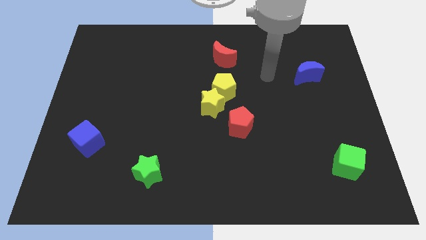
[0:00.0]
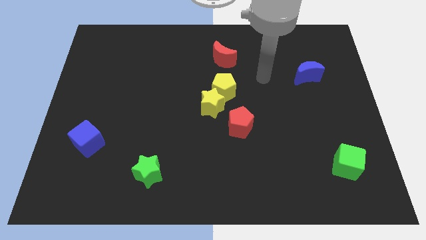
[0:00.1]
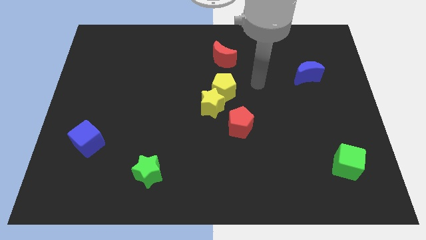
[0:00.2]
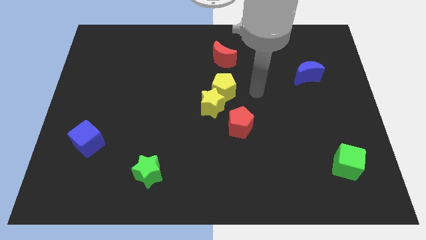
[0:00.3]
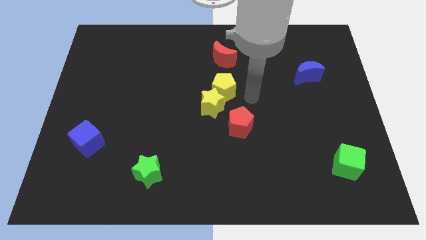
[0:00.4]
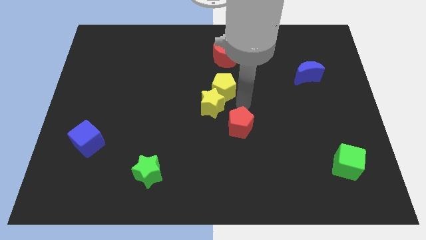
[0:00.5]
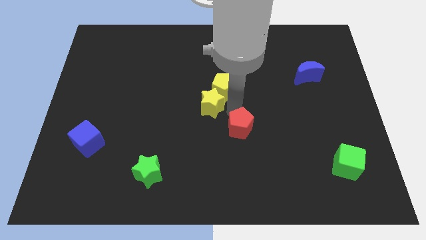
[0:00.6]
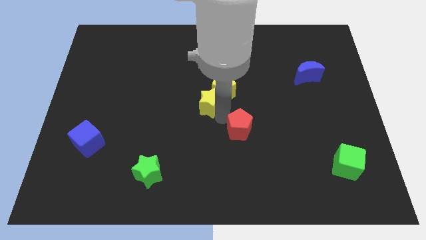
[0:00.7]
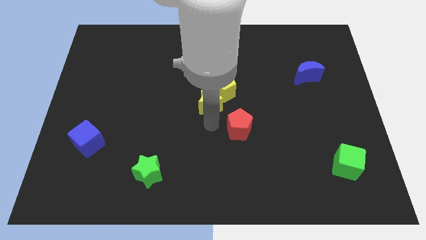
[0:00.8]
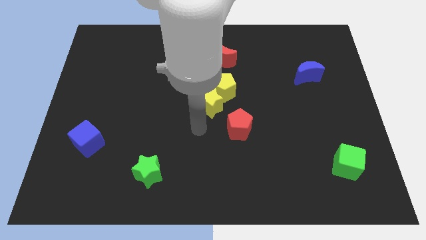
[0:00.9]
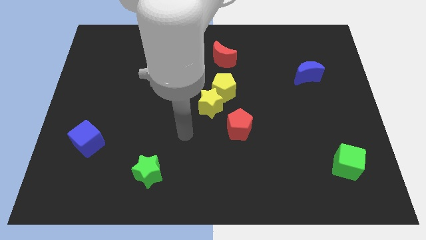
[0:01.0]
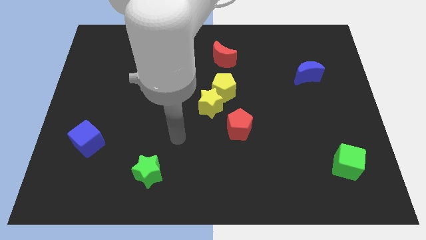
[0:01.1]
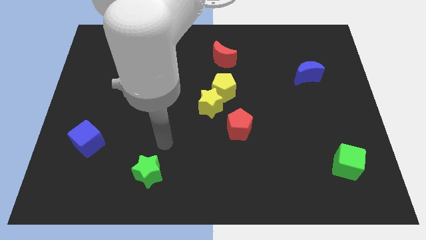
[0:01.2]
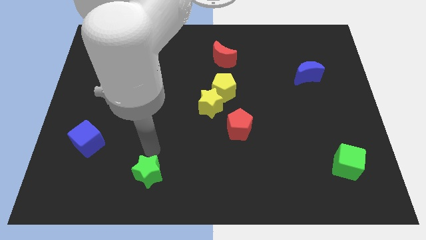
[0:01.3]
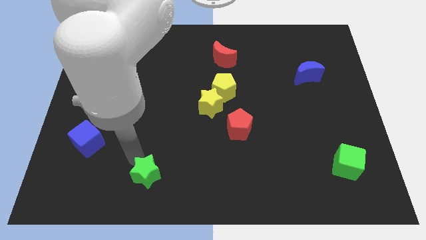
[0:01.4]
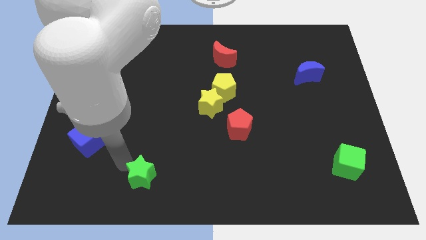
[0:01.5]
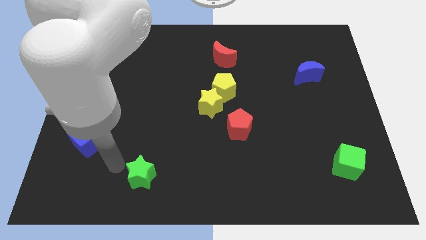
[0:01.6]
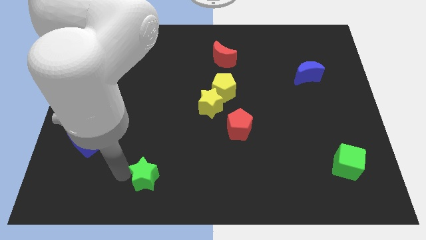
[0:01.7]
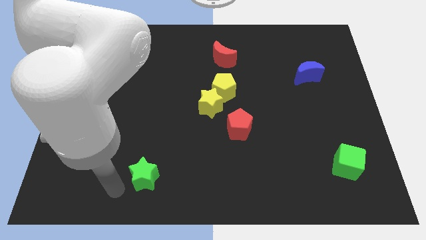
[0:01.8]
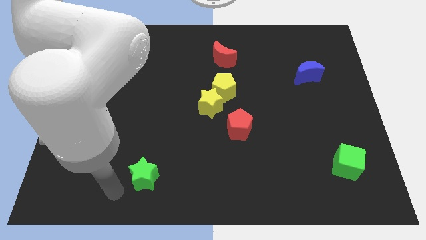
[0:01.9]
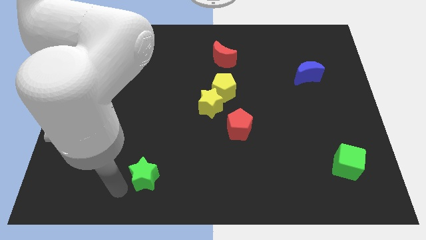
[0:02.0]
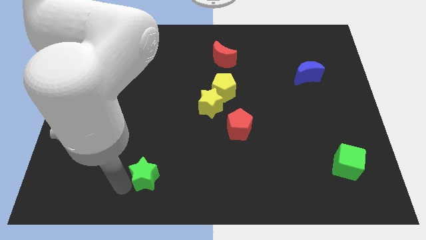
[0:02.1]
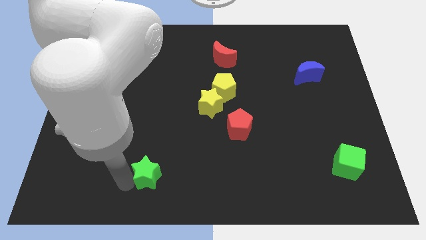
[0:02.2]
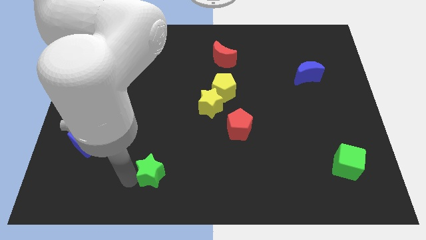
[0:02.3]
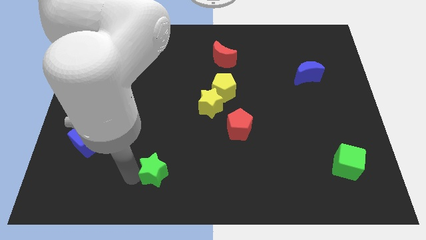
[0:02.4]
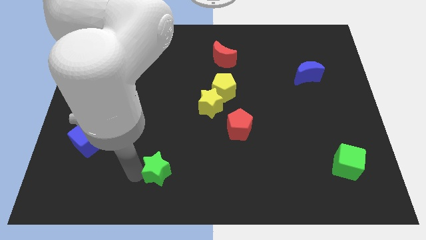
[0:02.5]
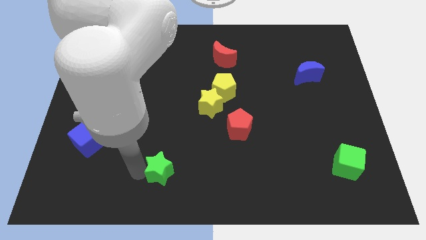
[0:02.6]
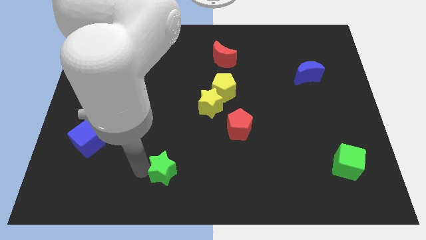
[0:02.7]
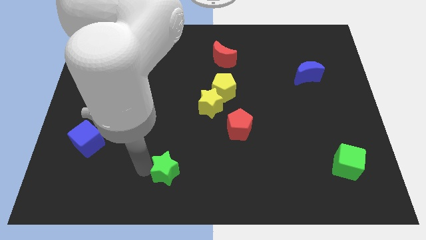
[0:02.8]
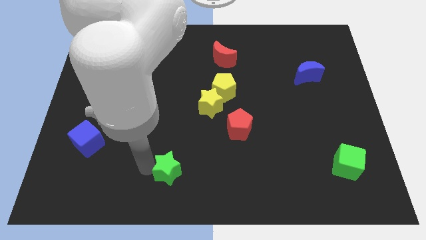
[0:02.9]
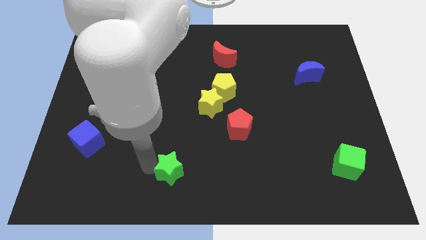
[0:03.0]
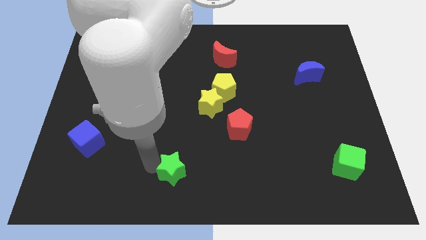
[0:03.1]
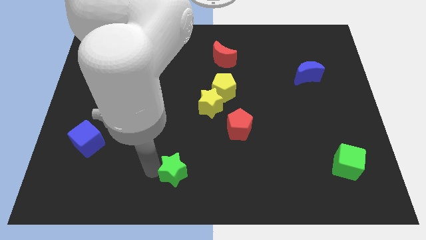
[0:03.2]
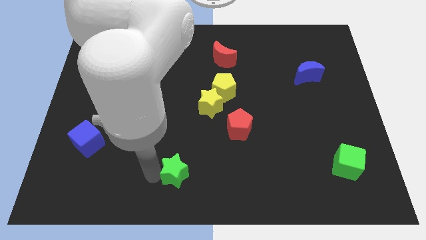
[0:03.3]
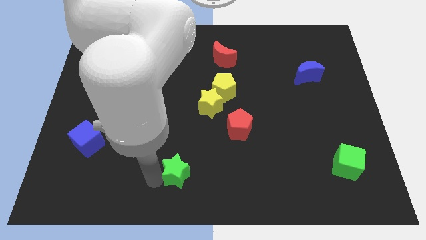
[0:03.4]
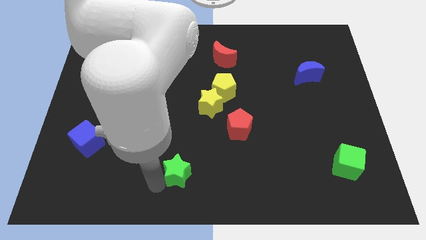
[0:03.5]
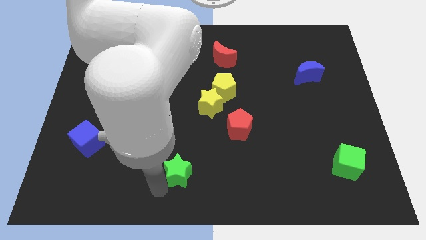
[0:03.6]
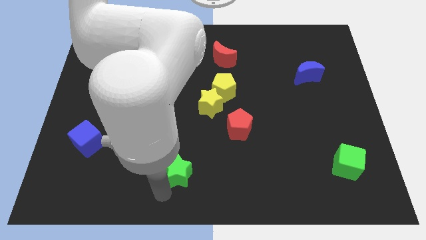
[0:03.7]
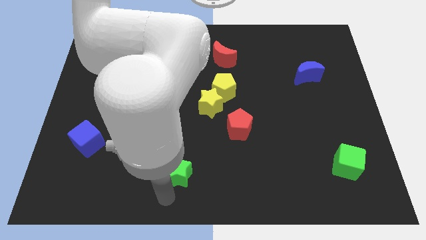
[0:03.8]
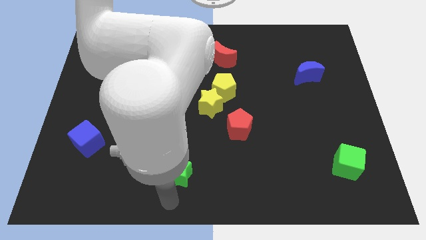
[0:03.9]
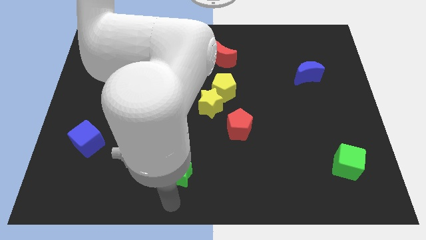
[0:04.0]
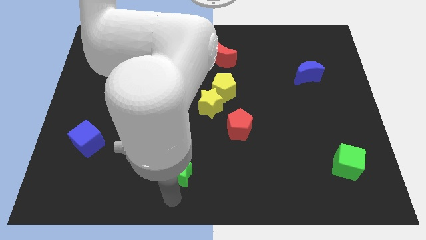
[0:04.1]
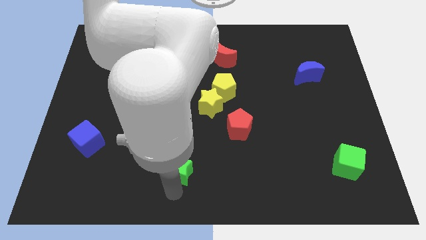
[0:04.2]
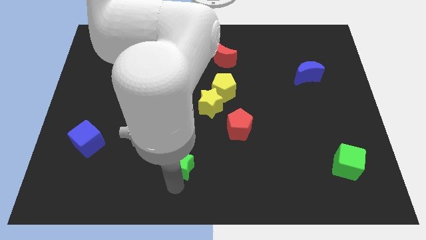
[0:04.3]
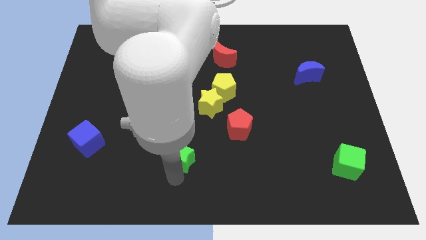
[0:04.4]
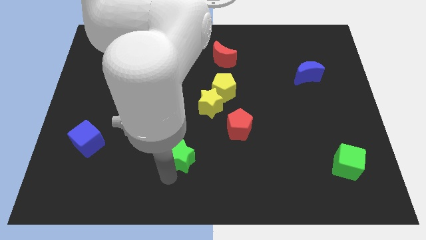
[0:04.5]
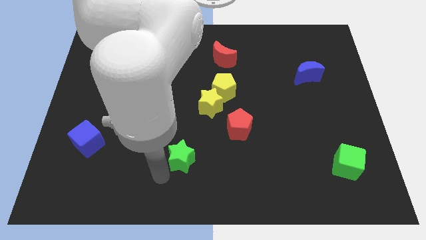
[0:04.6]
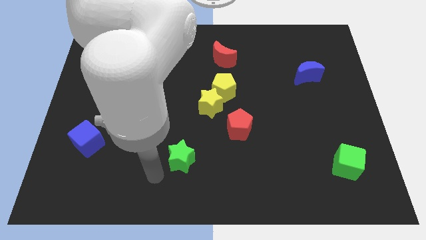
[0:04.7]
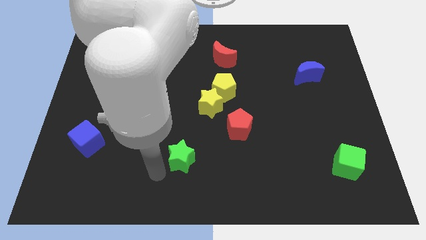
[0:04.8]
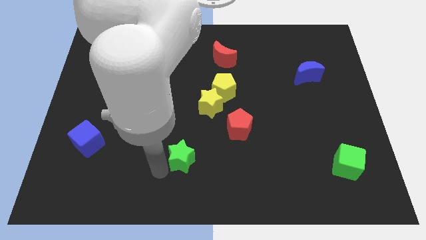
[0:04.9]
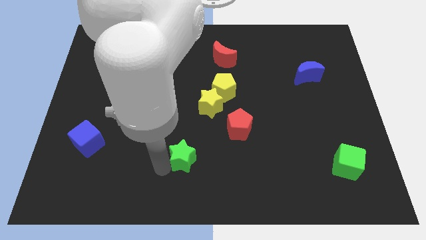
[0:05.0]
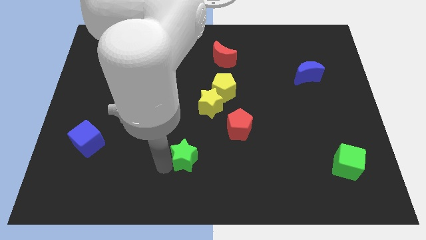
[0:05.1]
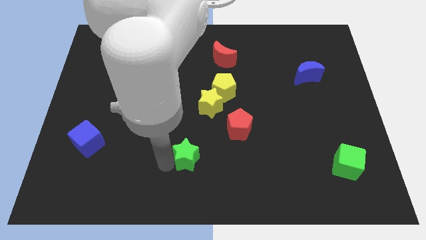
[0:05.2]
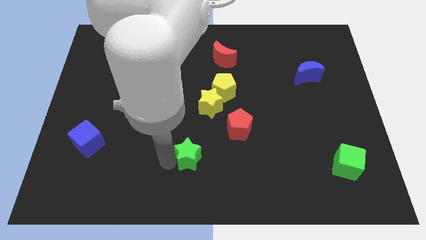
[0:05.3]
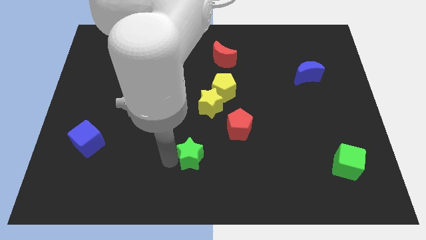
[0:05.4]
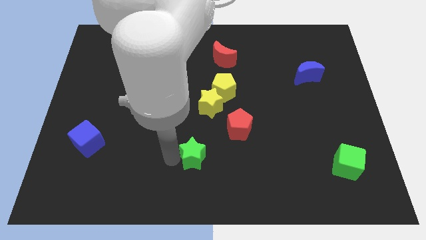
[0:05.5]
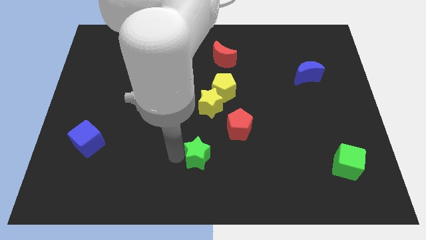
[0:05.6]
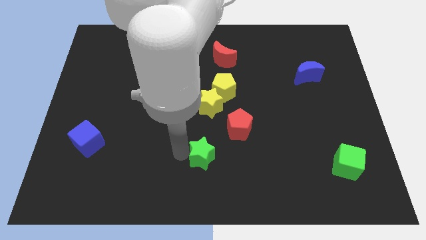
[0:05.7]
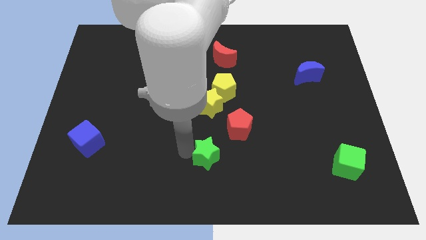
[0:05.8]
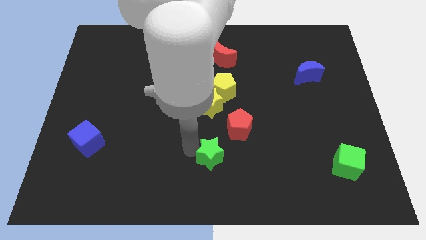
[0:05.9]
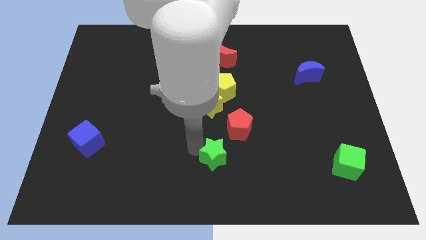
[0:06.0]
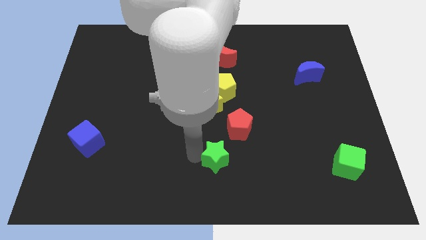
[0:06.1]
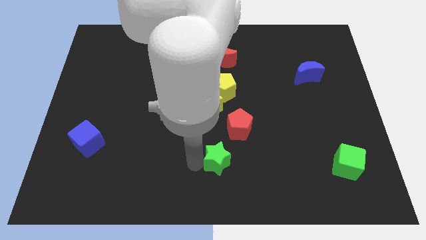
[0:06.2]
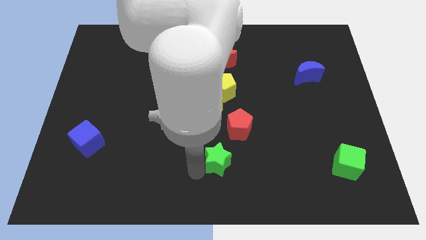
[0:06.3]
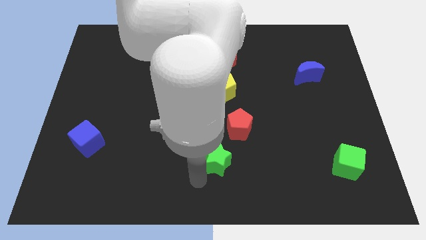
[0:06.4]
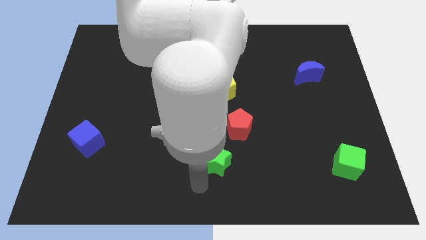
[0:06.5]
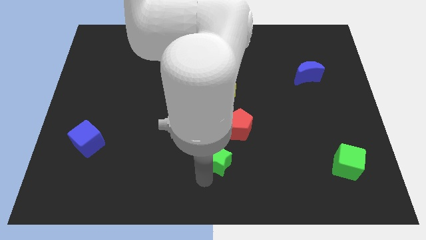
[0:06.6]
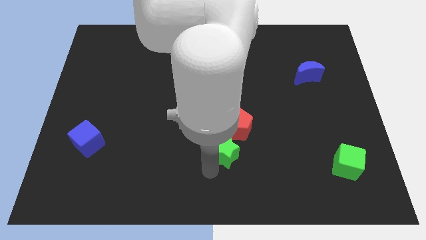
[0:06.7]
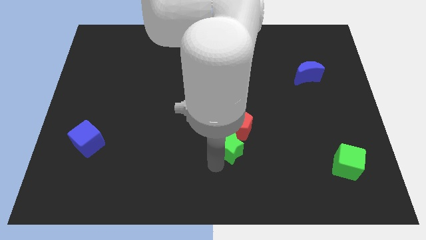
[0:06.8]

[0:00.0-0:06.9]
move the green star towards the red pentagon

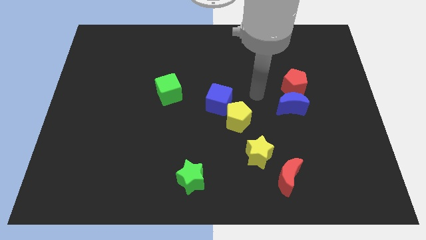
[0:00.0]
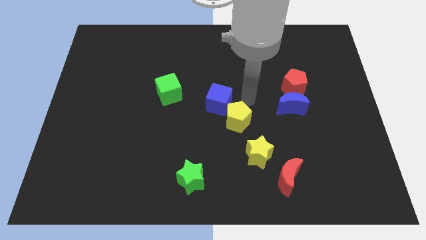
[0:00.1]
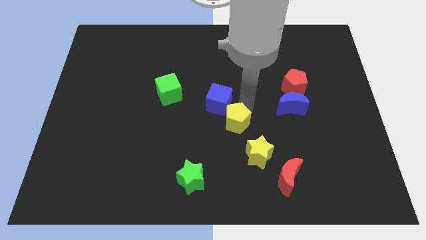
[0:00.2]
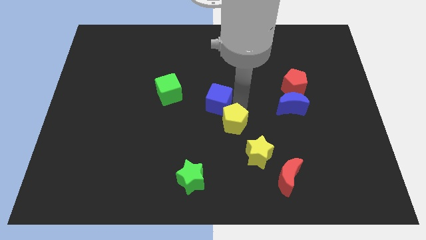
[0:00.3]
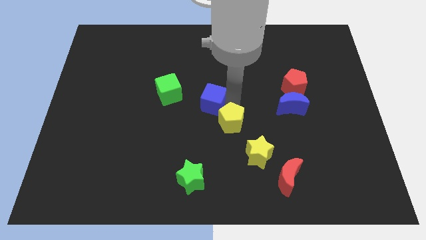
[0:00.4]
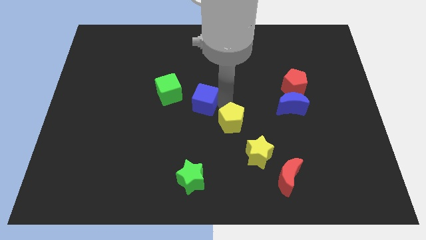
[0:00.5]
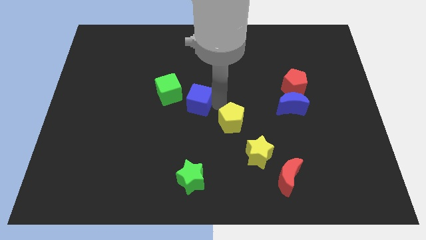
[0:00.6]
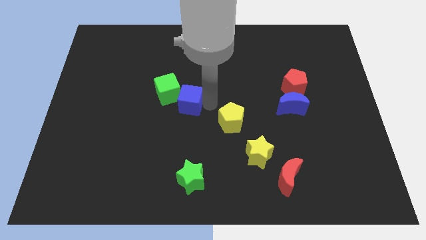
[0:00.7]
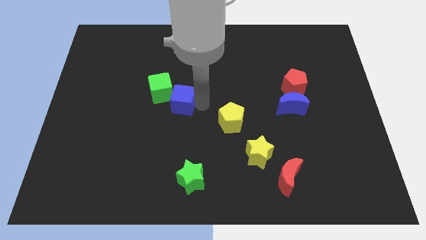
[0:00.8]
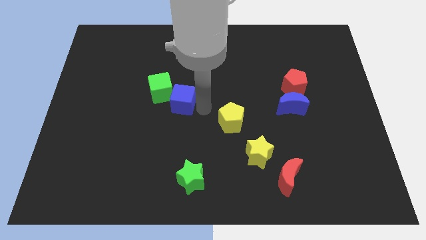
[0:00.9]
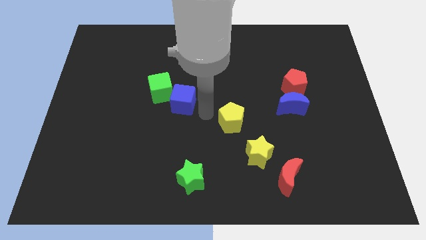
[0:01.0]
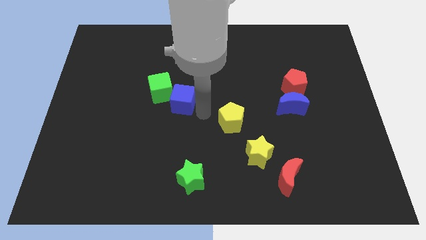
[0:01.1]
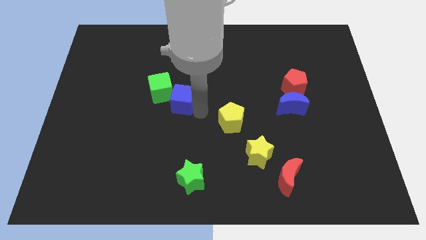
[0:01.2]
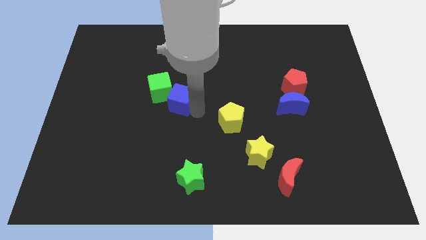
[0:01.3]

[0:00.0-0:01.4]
put the blue cube towards the green cube

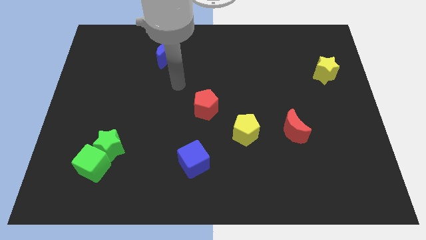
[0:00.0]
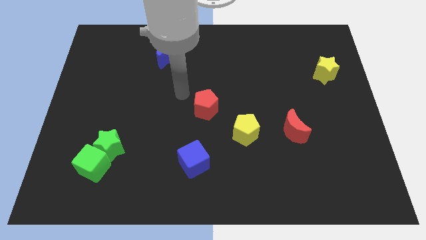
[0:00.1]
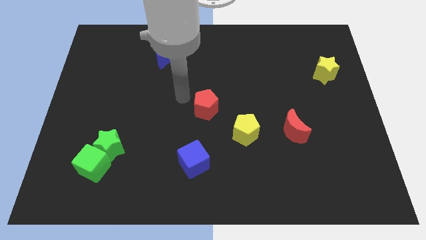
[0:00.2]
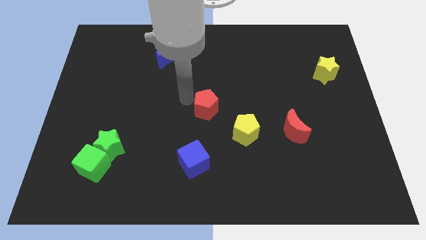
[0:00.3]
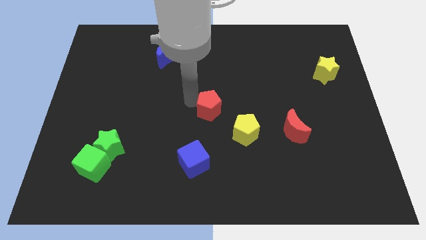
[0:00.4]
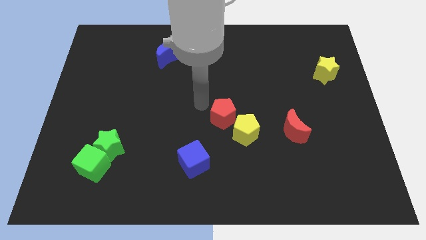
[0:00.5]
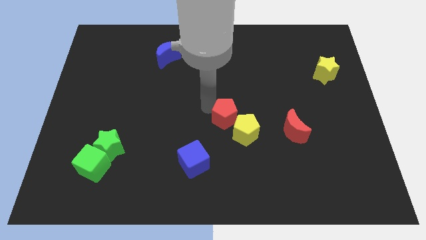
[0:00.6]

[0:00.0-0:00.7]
push the red pentagon close to the yellow pentagon
